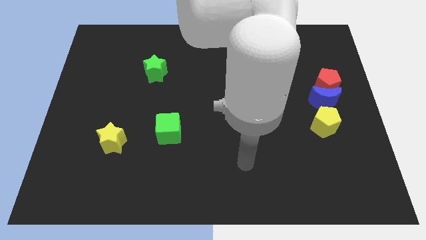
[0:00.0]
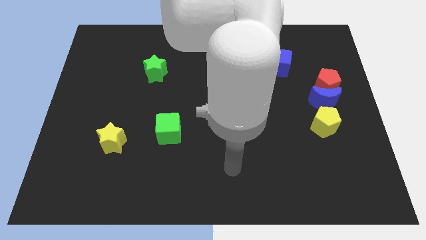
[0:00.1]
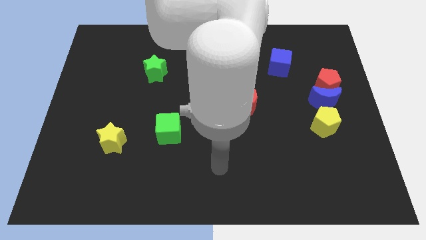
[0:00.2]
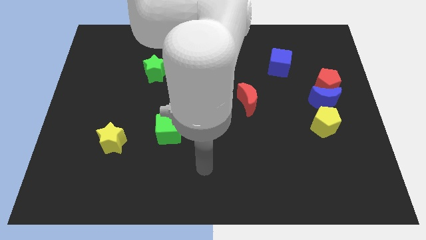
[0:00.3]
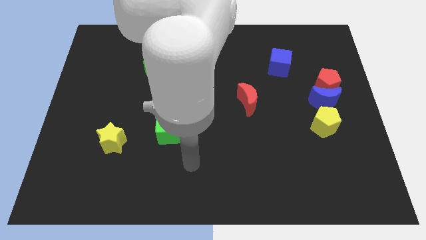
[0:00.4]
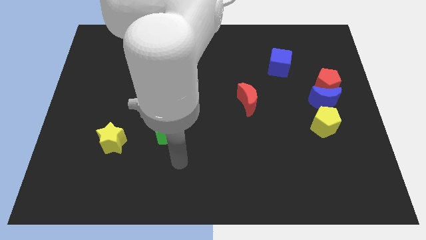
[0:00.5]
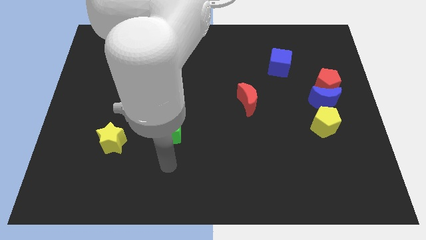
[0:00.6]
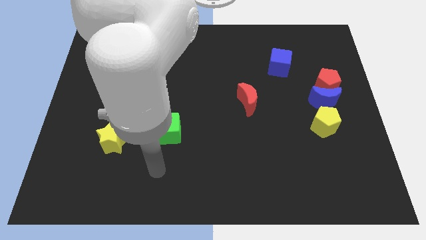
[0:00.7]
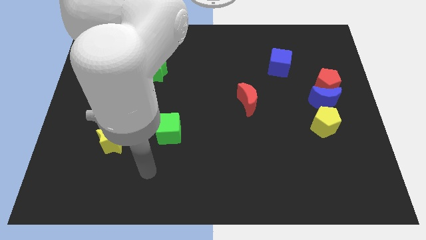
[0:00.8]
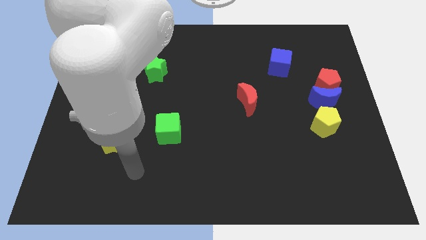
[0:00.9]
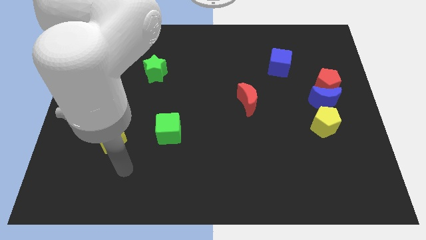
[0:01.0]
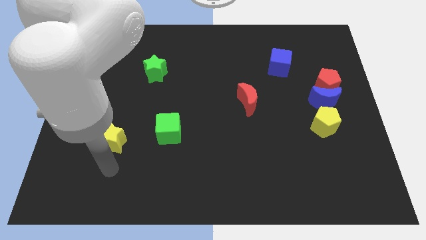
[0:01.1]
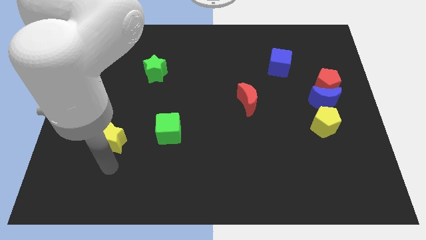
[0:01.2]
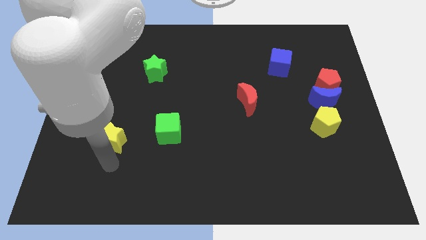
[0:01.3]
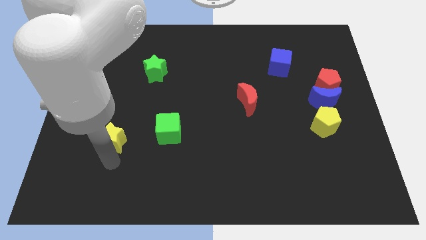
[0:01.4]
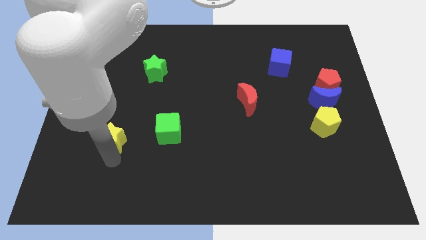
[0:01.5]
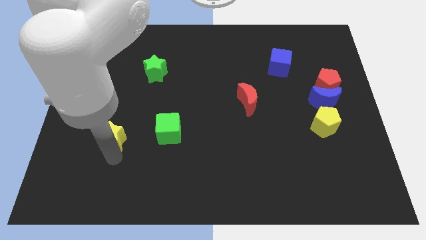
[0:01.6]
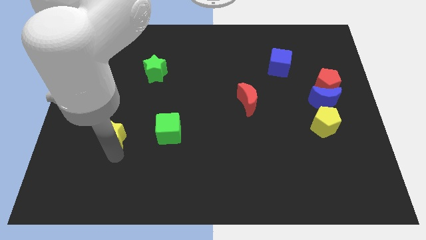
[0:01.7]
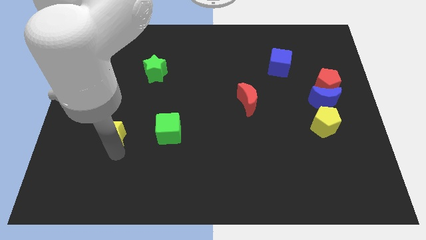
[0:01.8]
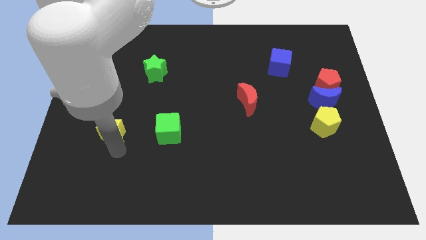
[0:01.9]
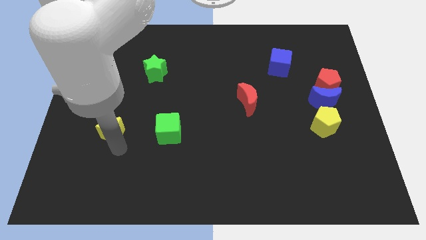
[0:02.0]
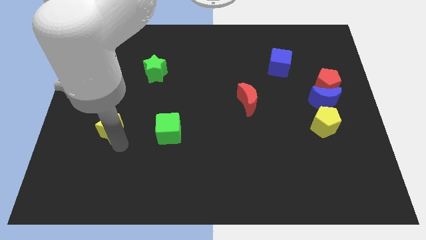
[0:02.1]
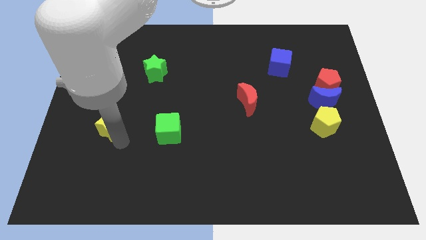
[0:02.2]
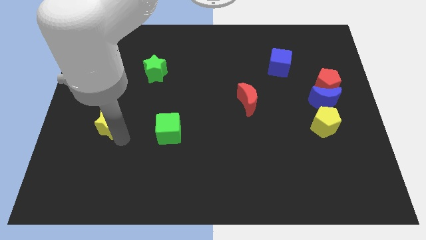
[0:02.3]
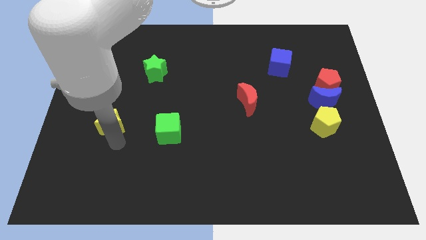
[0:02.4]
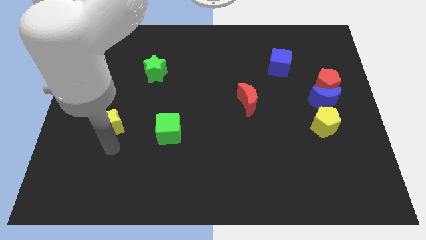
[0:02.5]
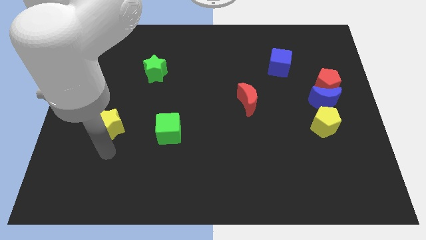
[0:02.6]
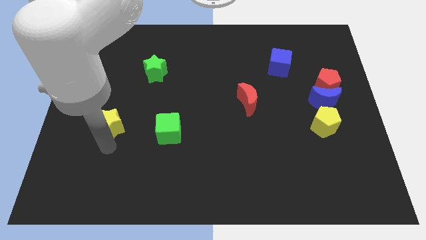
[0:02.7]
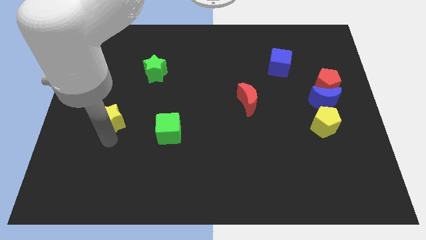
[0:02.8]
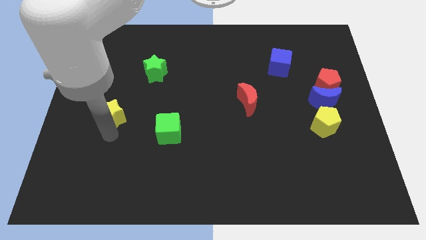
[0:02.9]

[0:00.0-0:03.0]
slide the yellow star somewhat up

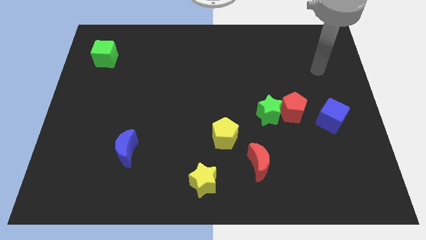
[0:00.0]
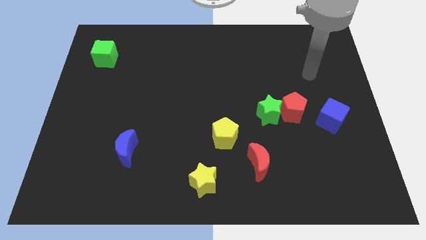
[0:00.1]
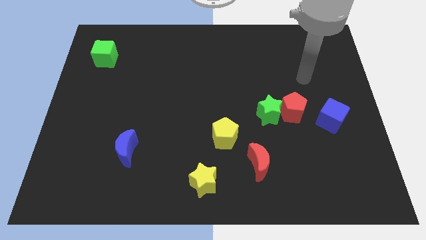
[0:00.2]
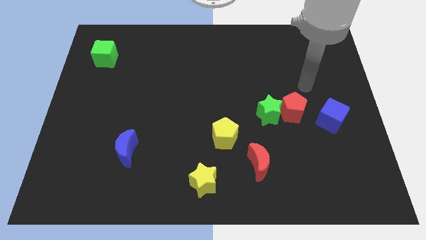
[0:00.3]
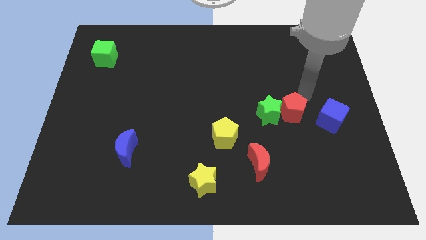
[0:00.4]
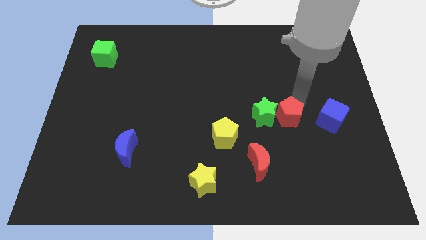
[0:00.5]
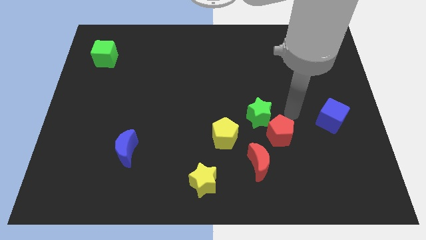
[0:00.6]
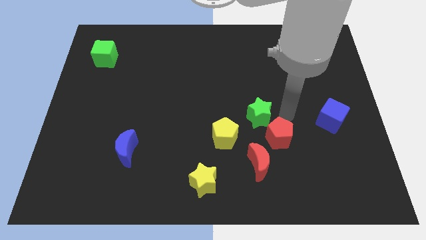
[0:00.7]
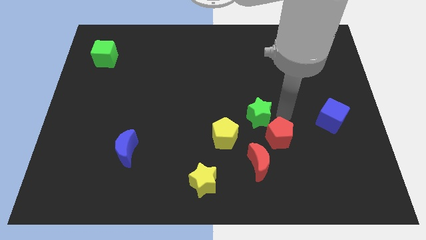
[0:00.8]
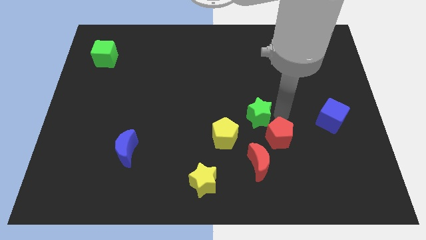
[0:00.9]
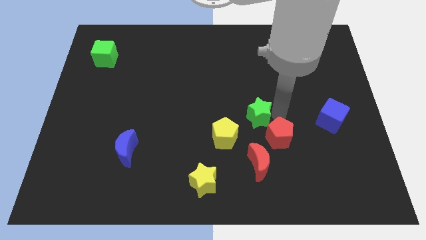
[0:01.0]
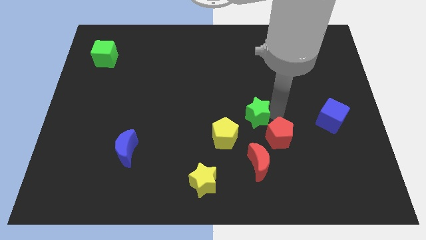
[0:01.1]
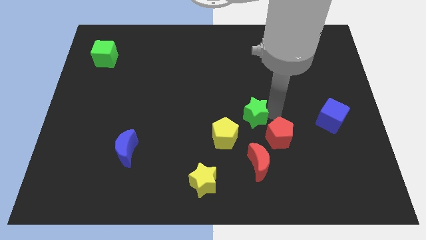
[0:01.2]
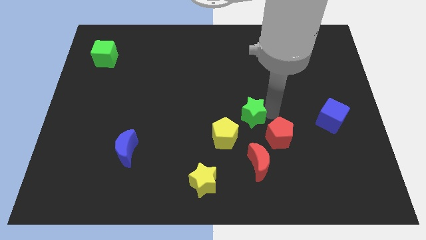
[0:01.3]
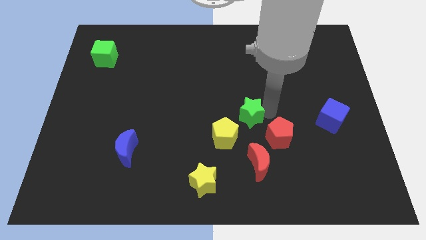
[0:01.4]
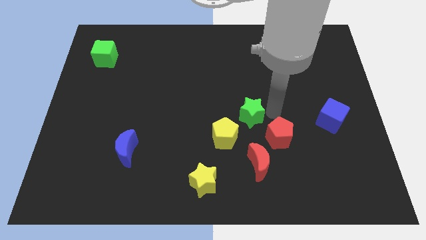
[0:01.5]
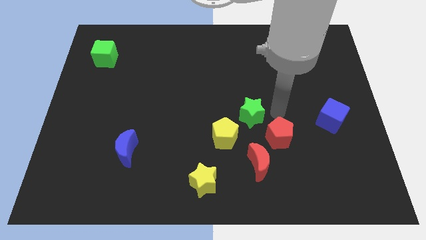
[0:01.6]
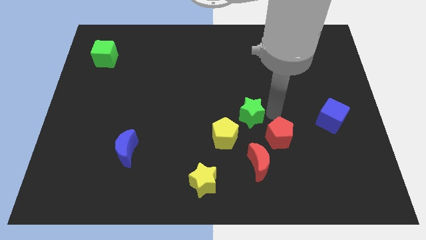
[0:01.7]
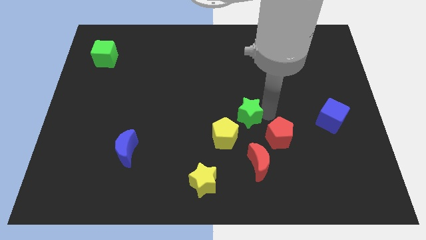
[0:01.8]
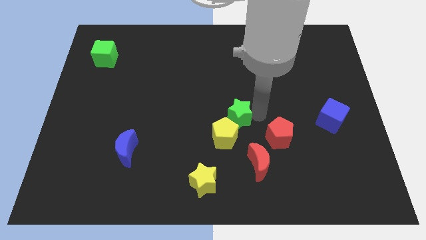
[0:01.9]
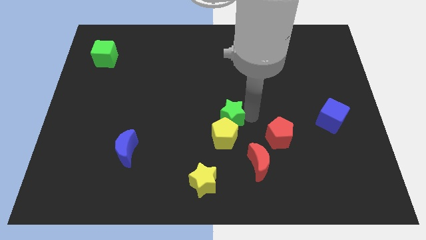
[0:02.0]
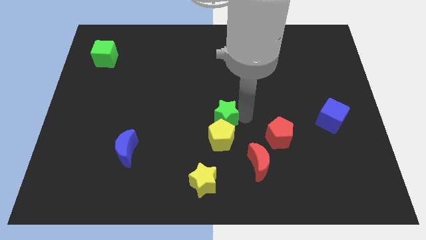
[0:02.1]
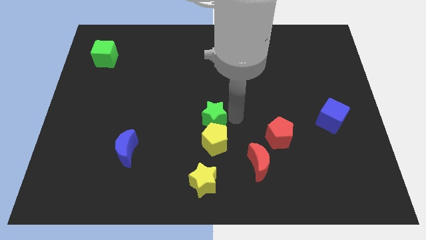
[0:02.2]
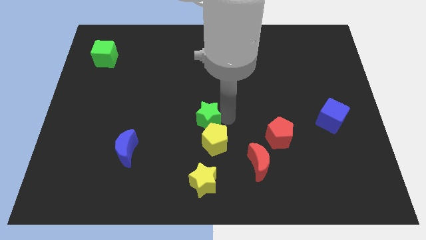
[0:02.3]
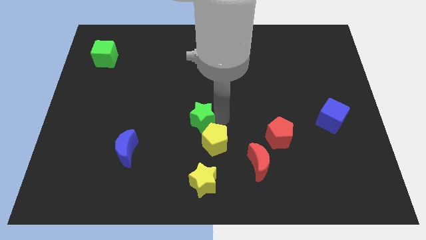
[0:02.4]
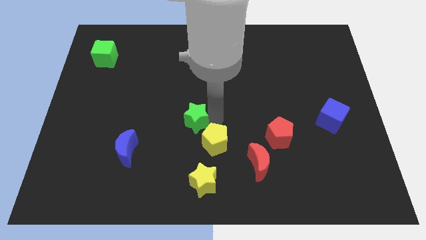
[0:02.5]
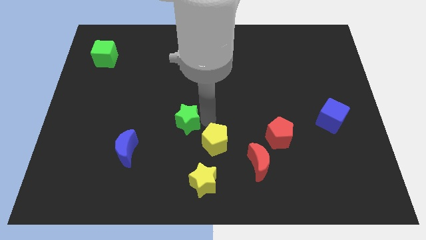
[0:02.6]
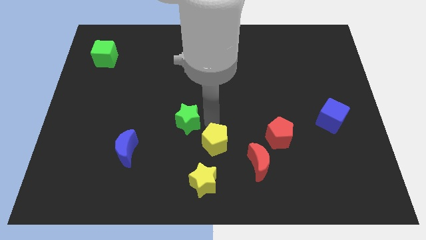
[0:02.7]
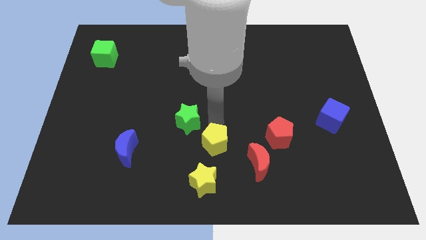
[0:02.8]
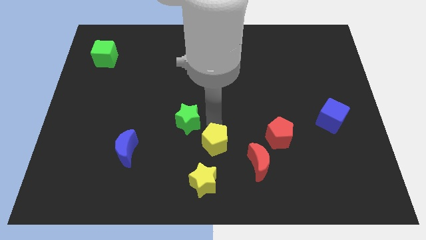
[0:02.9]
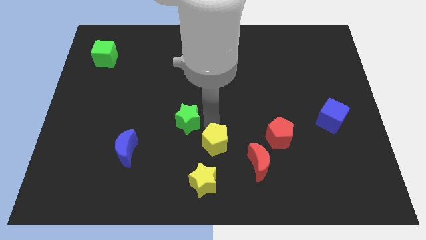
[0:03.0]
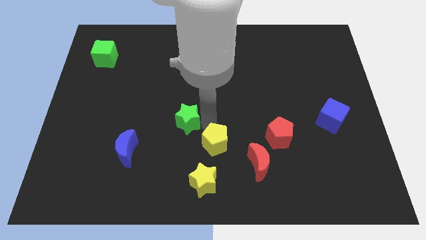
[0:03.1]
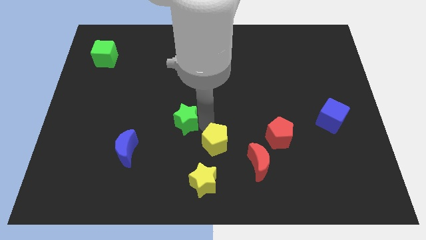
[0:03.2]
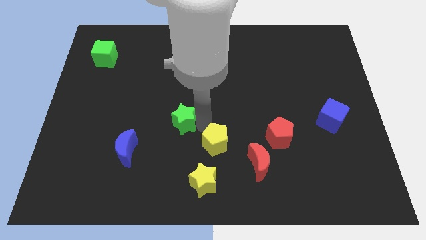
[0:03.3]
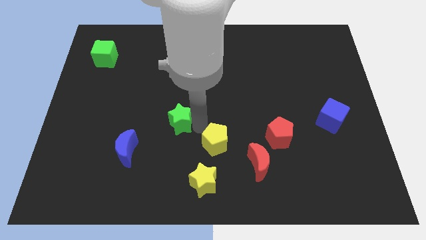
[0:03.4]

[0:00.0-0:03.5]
slide the green star left

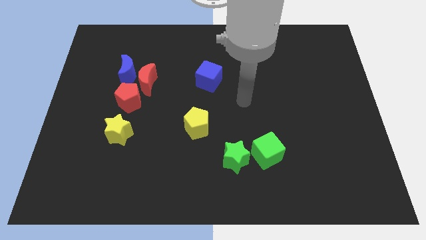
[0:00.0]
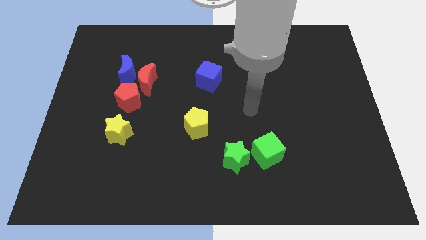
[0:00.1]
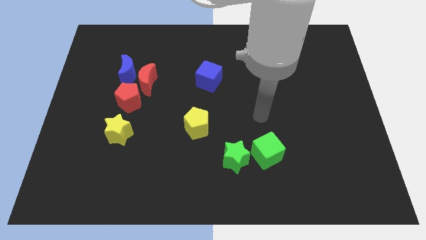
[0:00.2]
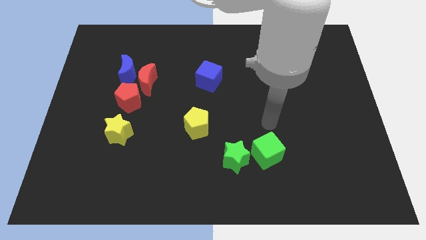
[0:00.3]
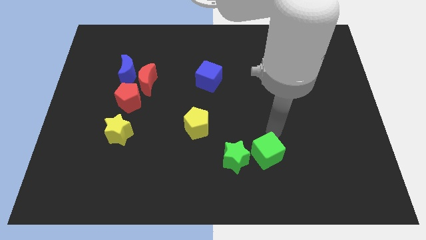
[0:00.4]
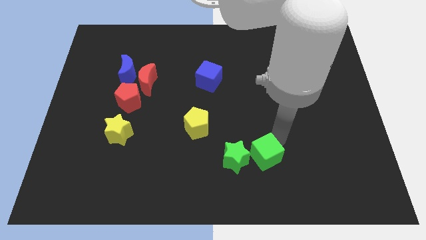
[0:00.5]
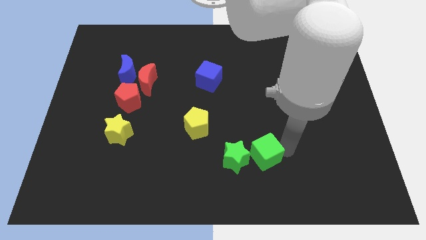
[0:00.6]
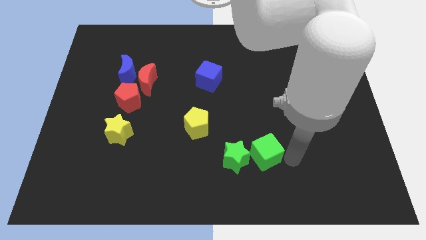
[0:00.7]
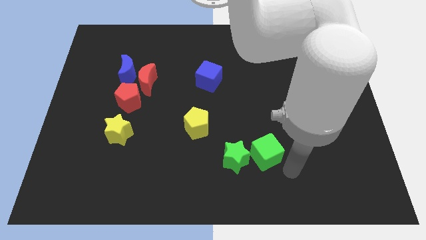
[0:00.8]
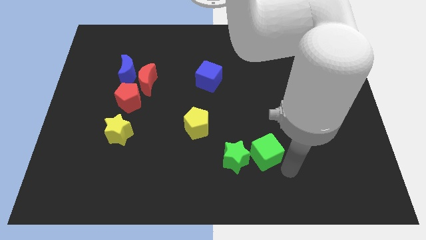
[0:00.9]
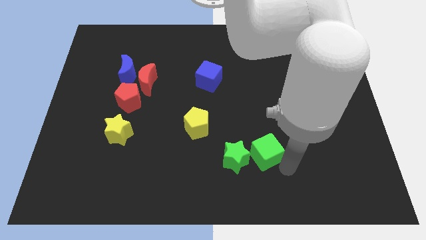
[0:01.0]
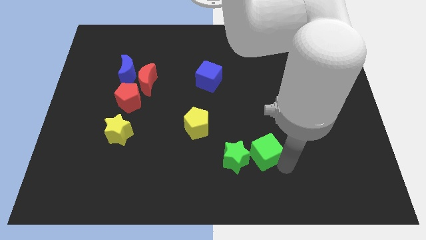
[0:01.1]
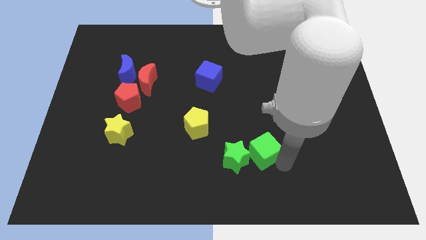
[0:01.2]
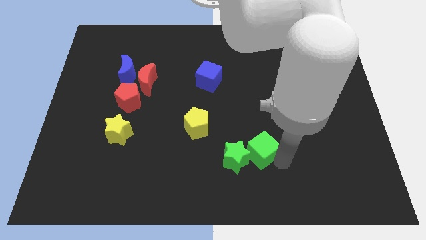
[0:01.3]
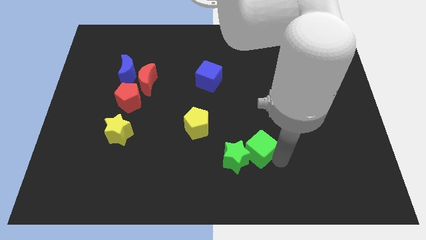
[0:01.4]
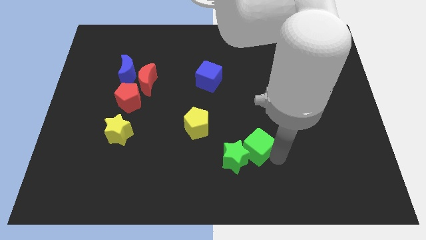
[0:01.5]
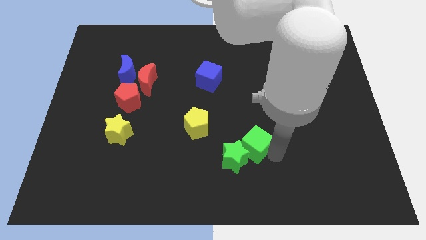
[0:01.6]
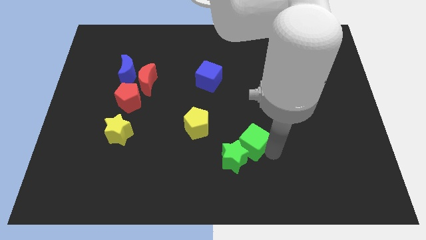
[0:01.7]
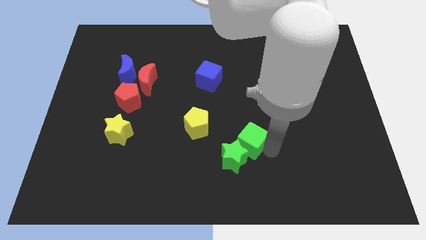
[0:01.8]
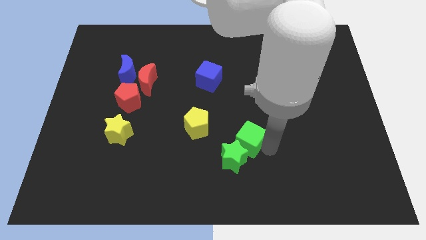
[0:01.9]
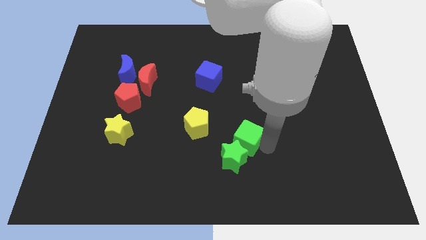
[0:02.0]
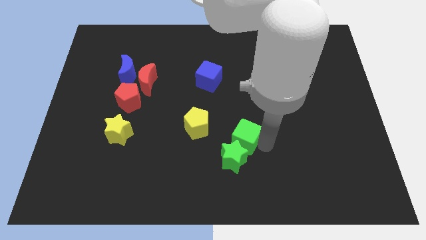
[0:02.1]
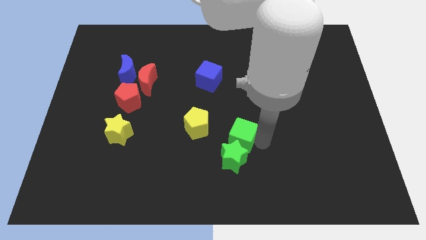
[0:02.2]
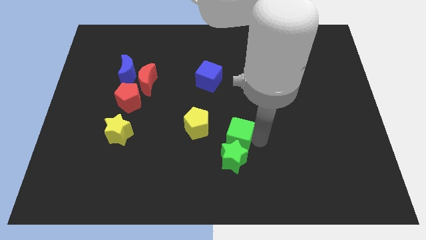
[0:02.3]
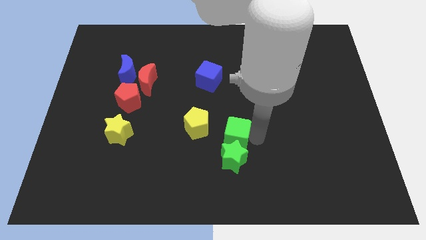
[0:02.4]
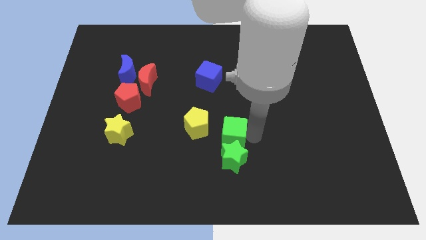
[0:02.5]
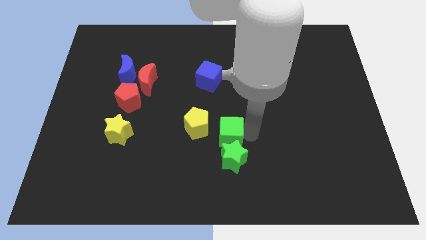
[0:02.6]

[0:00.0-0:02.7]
push the green cube left slightly
